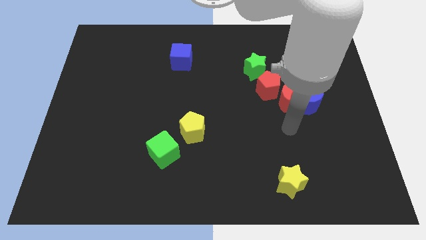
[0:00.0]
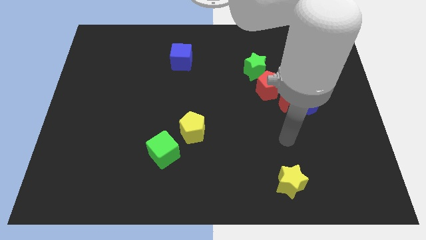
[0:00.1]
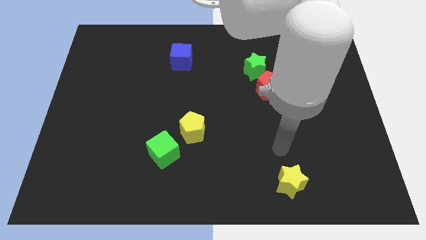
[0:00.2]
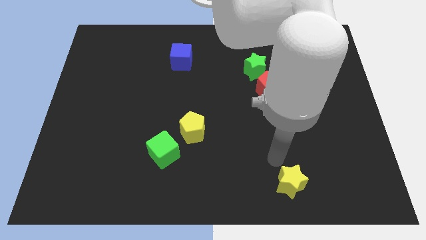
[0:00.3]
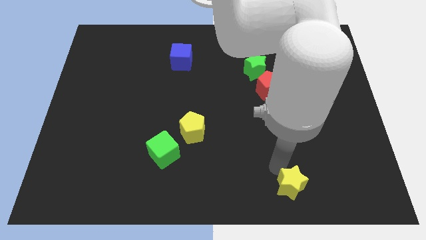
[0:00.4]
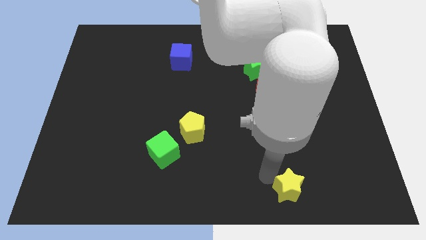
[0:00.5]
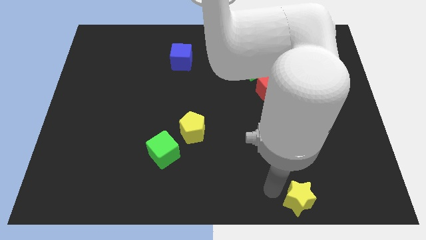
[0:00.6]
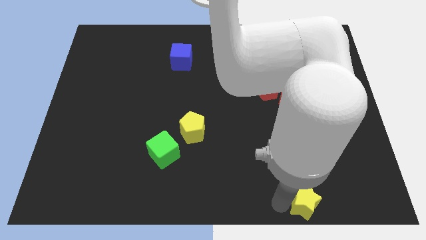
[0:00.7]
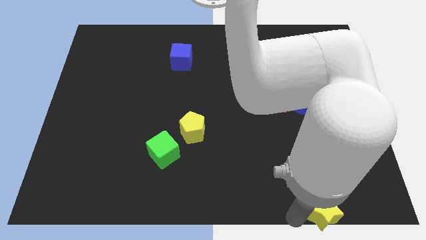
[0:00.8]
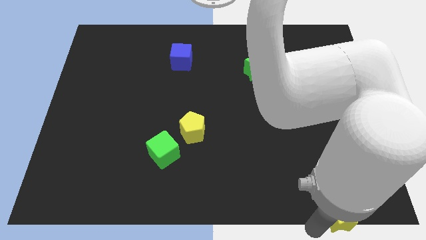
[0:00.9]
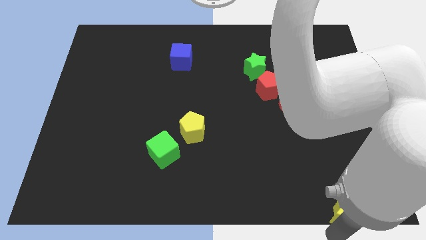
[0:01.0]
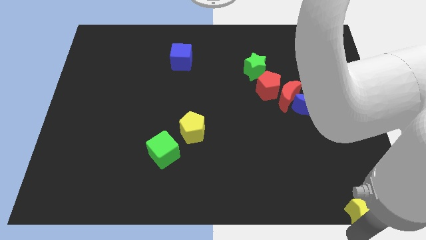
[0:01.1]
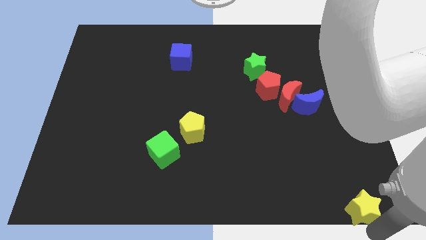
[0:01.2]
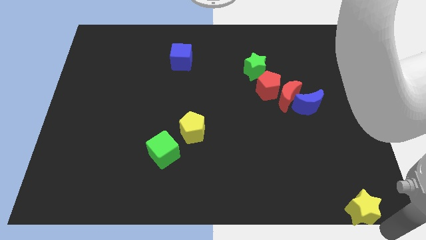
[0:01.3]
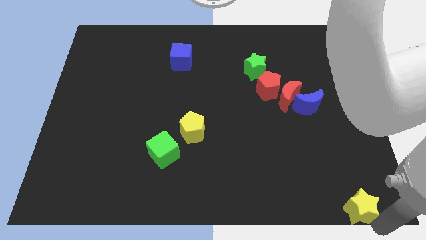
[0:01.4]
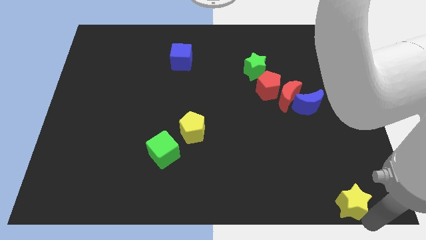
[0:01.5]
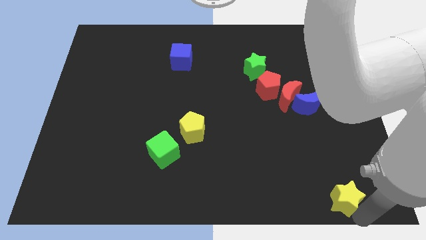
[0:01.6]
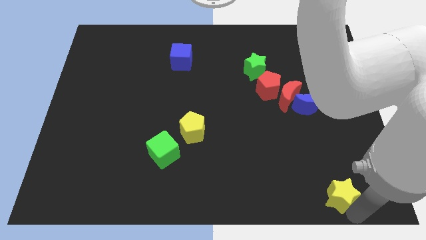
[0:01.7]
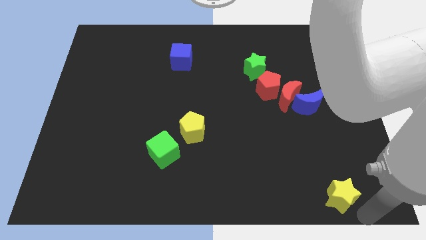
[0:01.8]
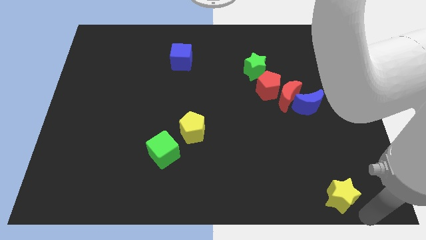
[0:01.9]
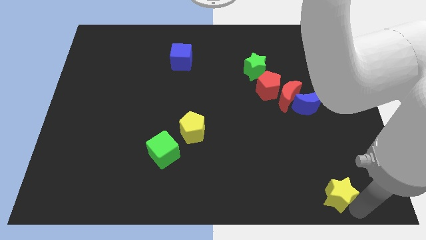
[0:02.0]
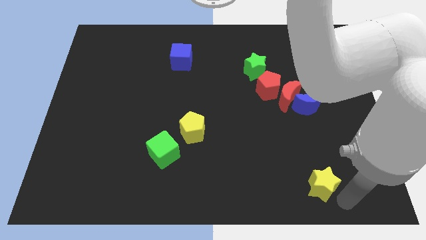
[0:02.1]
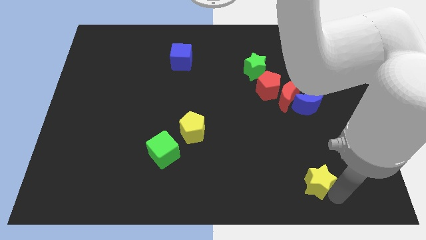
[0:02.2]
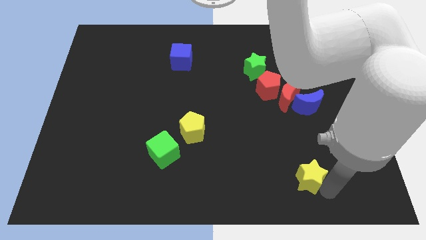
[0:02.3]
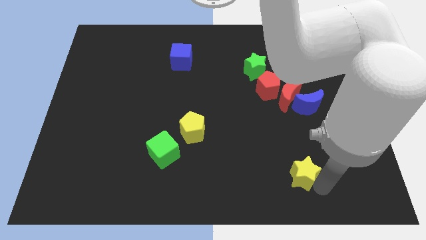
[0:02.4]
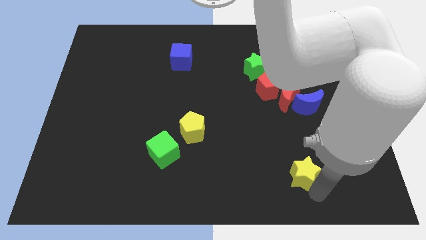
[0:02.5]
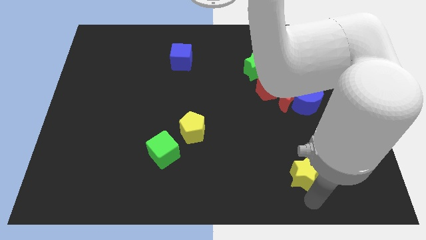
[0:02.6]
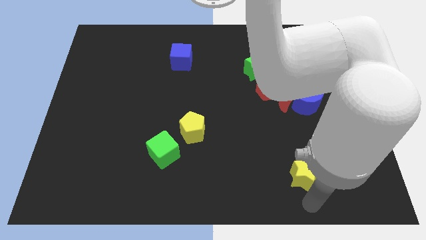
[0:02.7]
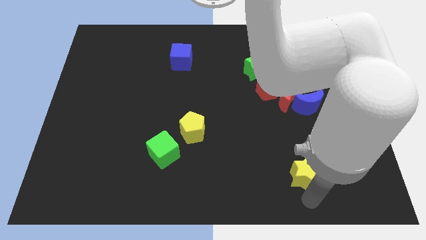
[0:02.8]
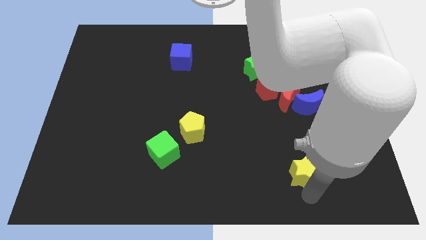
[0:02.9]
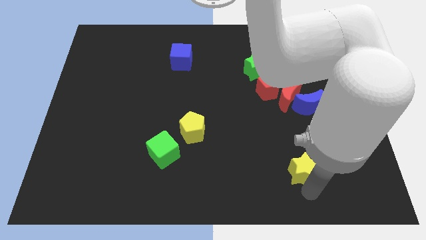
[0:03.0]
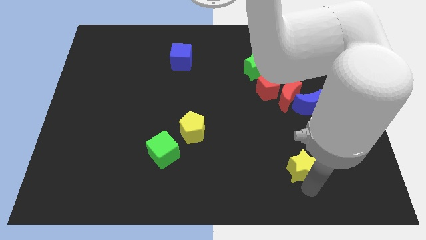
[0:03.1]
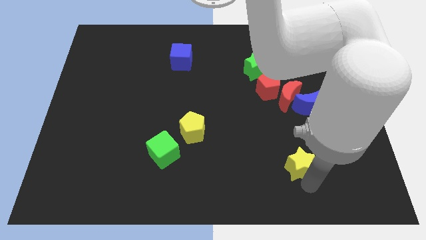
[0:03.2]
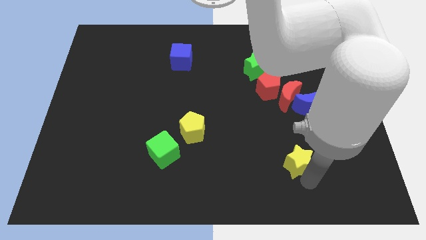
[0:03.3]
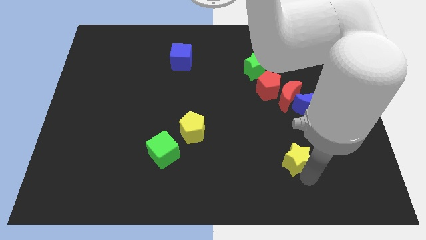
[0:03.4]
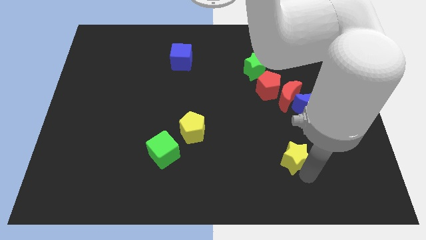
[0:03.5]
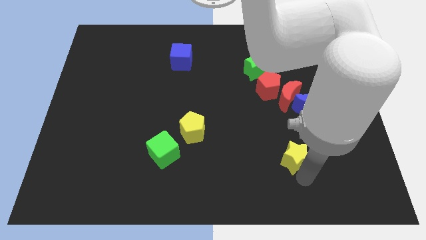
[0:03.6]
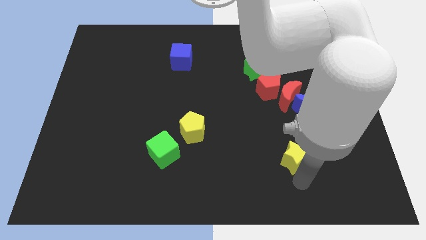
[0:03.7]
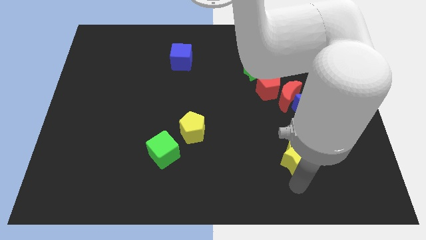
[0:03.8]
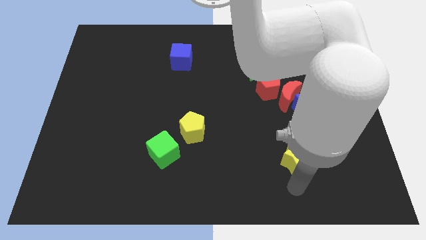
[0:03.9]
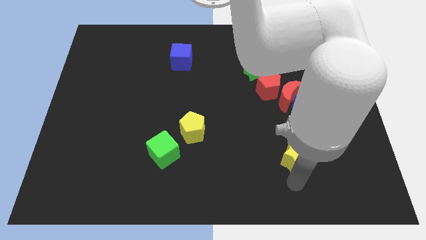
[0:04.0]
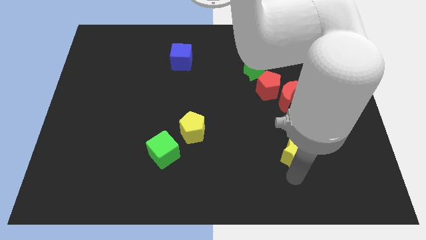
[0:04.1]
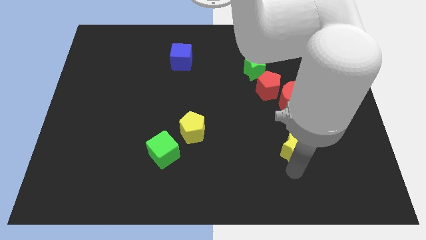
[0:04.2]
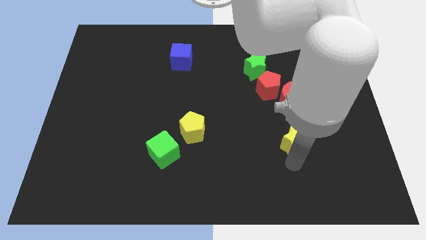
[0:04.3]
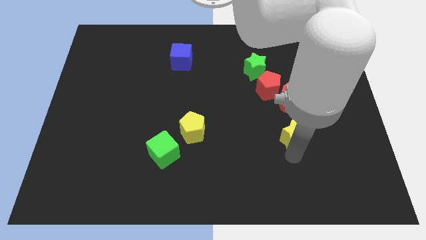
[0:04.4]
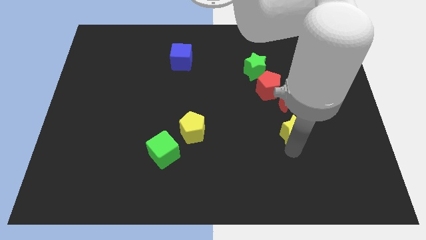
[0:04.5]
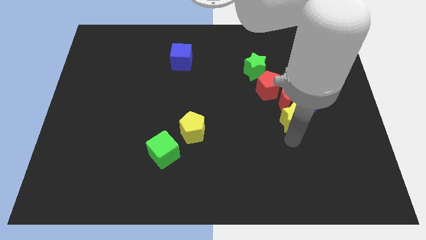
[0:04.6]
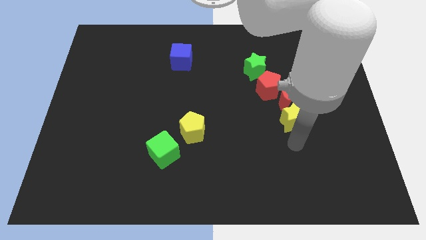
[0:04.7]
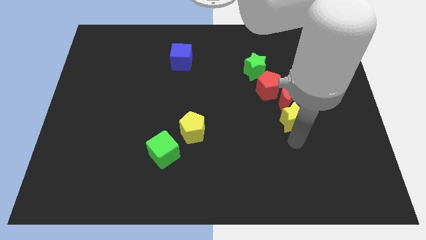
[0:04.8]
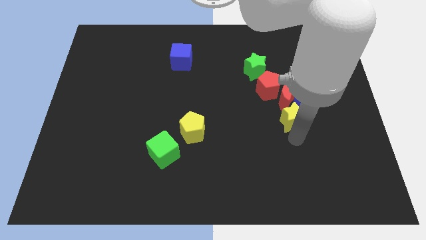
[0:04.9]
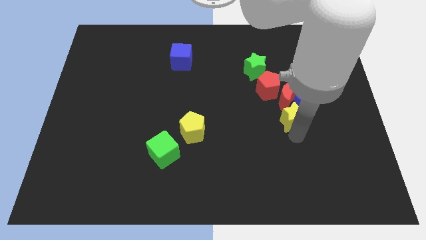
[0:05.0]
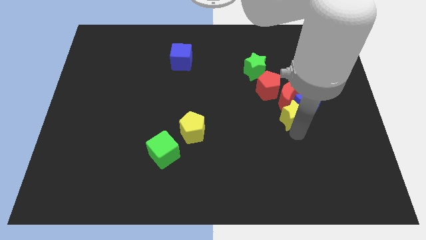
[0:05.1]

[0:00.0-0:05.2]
slide the yellow star close to the red moon

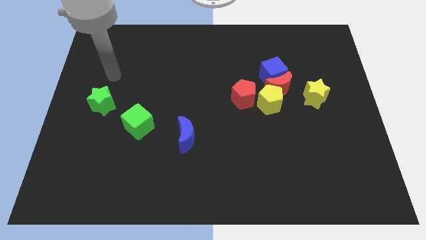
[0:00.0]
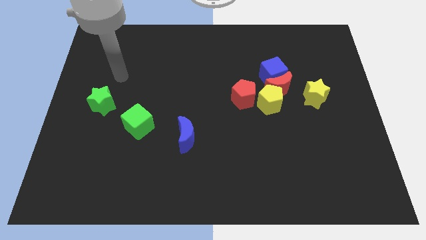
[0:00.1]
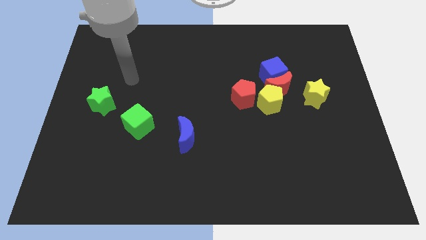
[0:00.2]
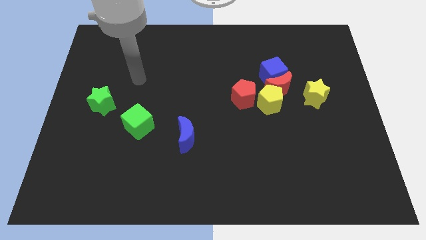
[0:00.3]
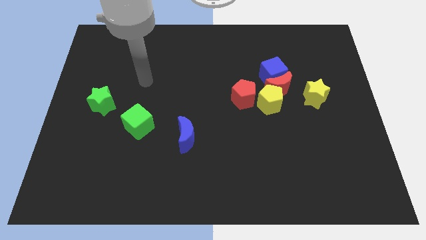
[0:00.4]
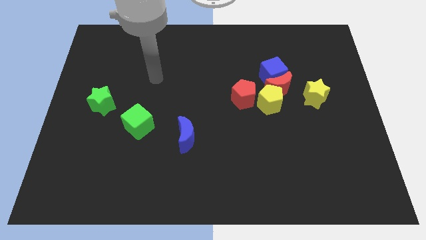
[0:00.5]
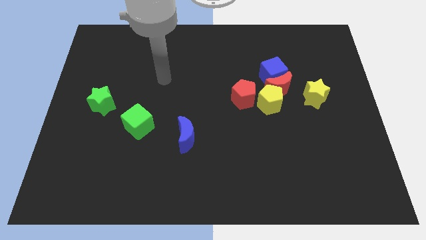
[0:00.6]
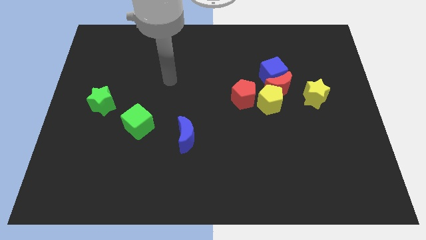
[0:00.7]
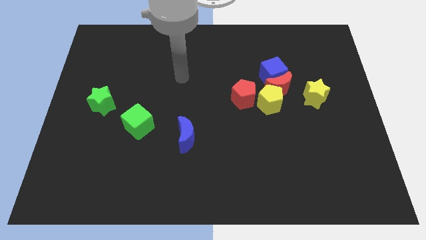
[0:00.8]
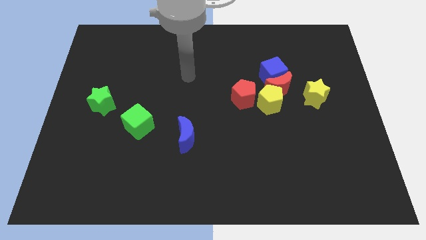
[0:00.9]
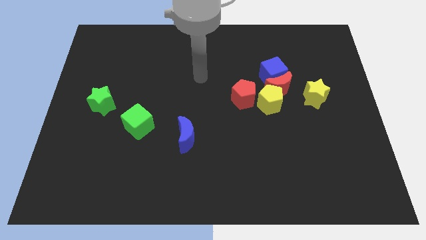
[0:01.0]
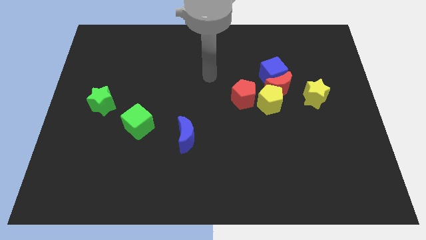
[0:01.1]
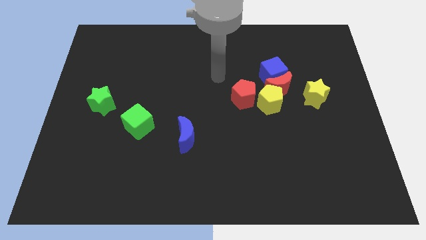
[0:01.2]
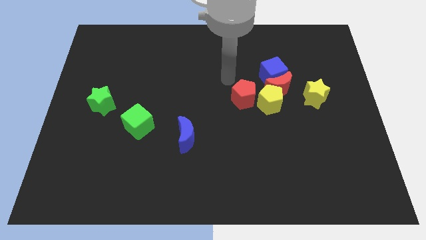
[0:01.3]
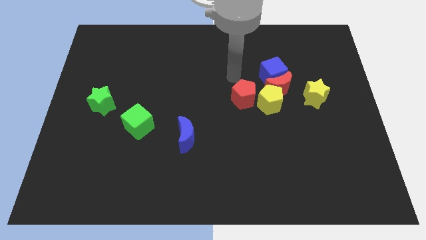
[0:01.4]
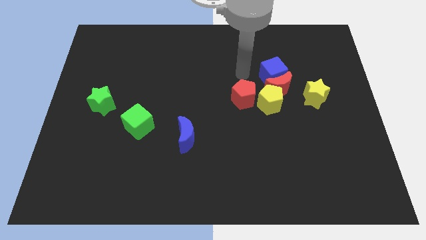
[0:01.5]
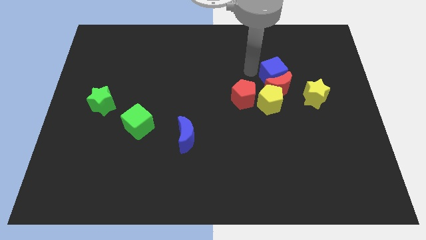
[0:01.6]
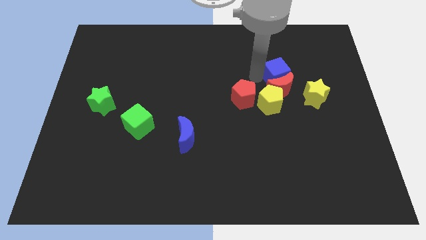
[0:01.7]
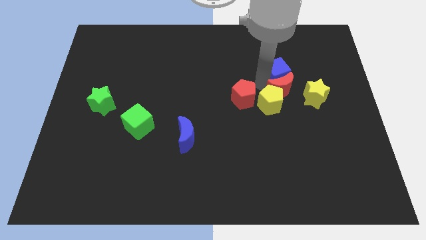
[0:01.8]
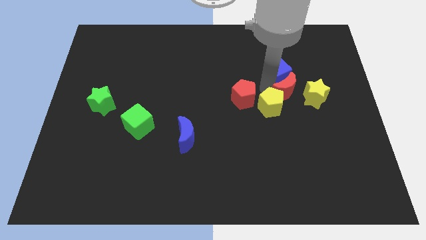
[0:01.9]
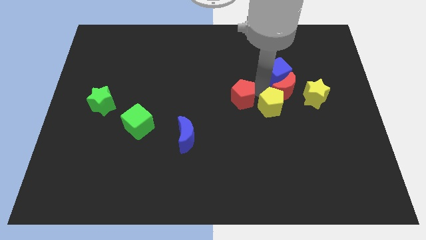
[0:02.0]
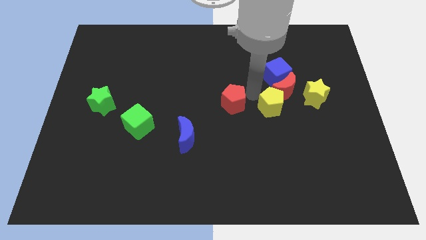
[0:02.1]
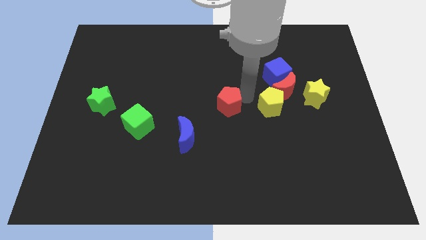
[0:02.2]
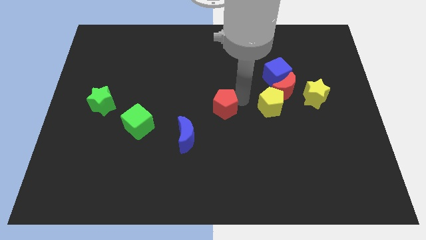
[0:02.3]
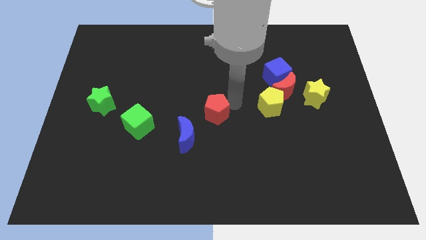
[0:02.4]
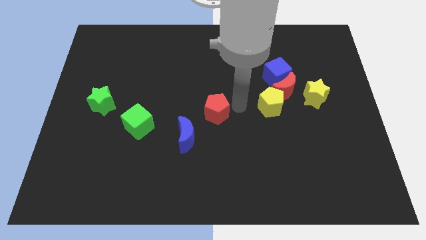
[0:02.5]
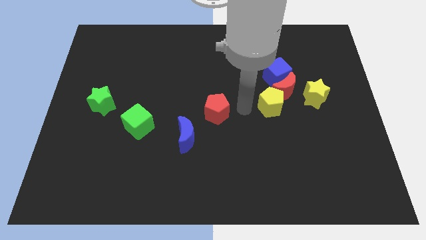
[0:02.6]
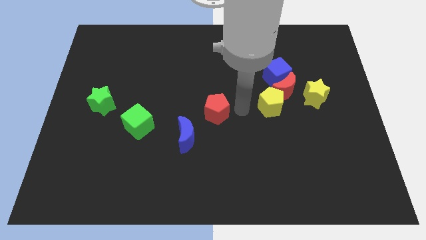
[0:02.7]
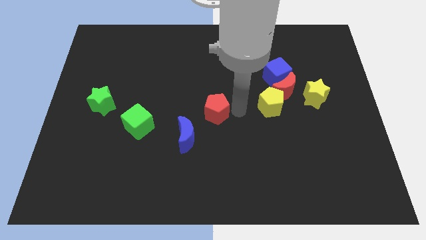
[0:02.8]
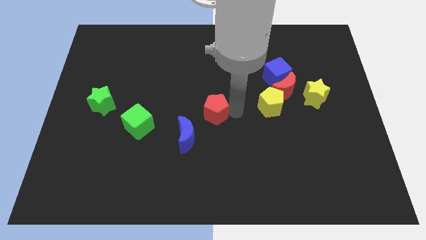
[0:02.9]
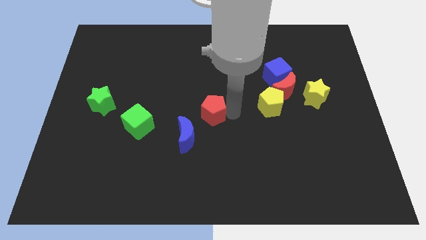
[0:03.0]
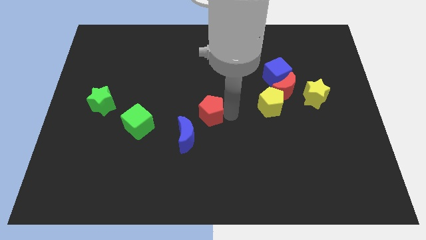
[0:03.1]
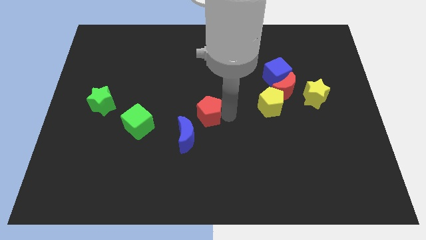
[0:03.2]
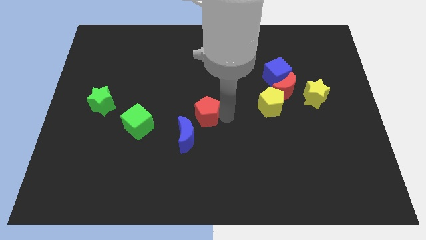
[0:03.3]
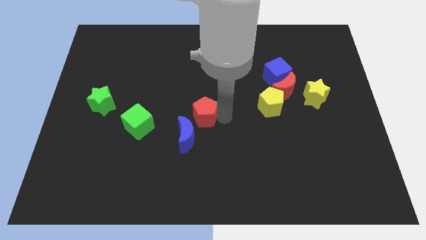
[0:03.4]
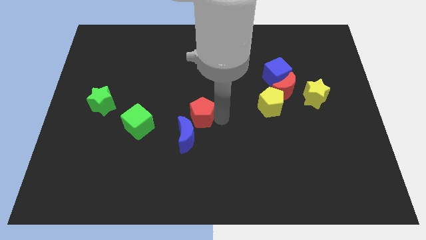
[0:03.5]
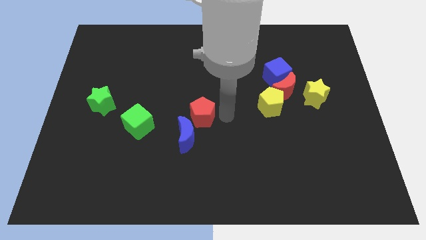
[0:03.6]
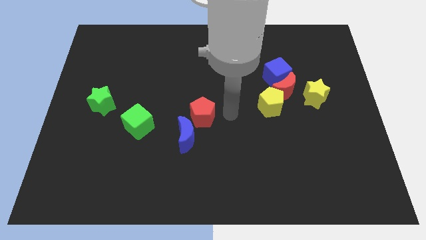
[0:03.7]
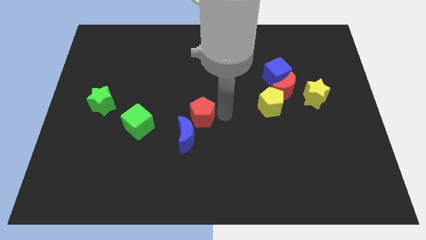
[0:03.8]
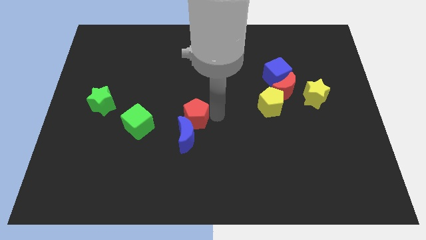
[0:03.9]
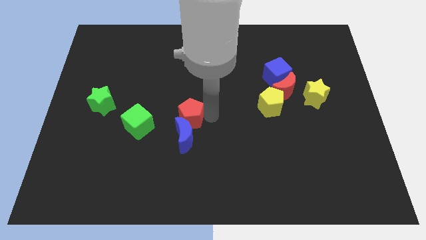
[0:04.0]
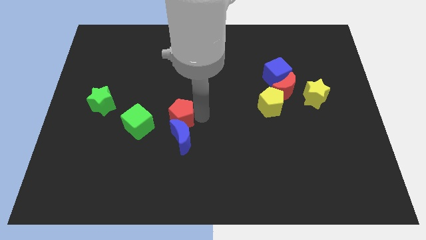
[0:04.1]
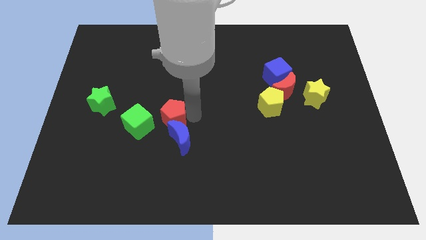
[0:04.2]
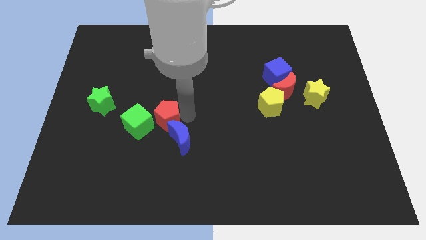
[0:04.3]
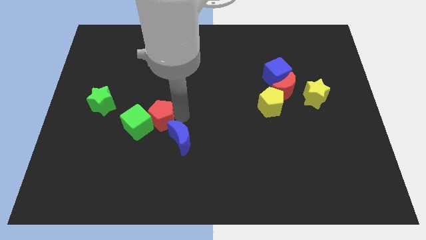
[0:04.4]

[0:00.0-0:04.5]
move the red pentagon close to the green cube
